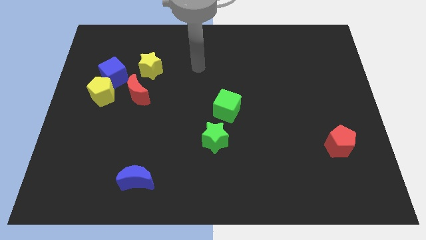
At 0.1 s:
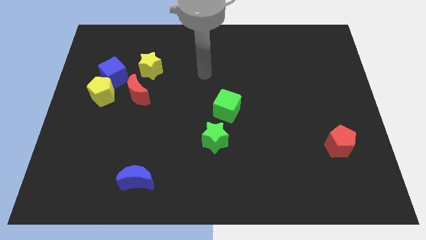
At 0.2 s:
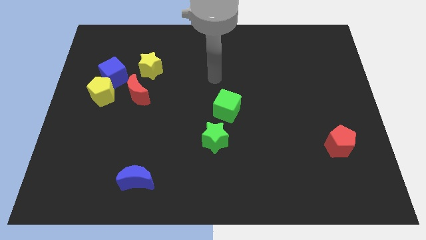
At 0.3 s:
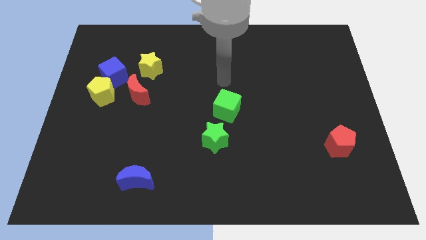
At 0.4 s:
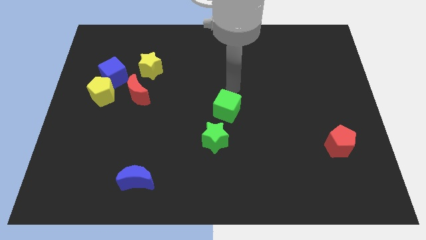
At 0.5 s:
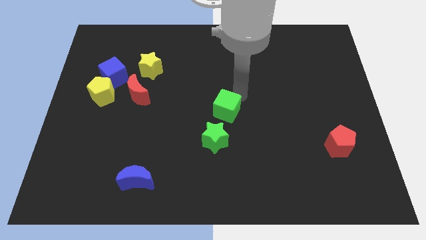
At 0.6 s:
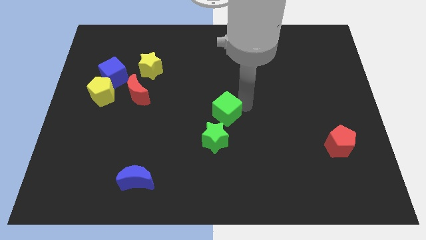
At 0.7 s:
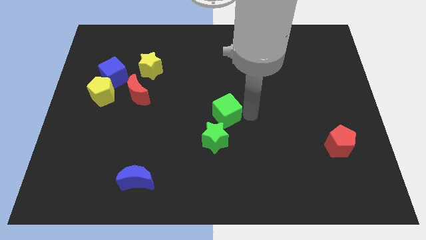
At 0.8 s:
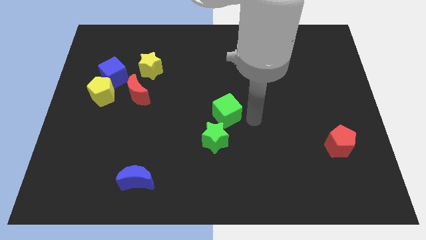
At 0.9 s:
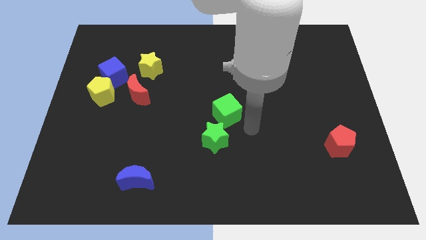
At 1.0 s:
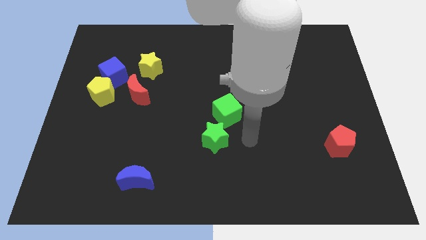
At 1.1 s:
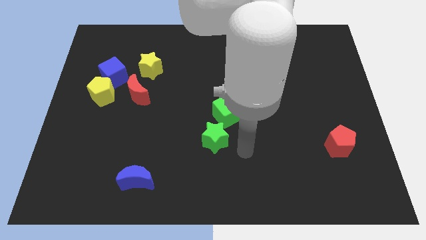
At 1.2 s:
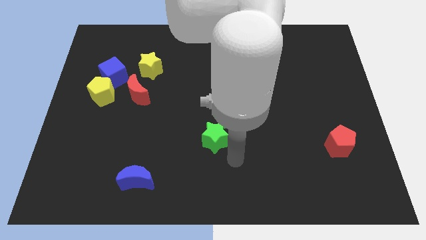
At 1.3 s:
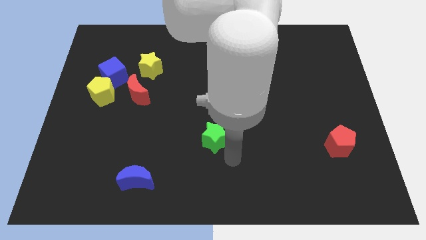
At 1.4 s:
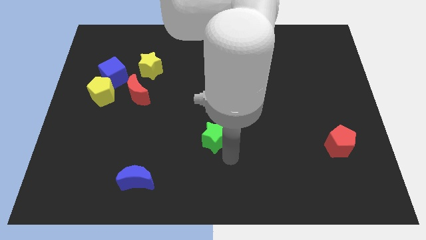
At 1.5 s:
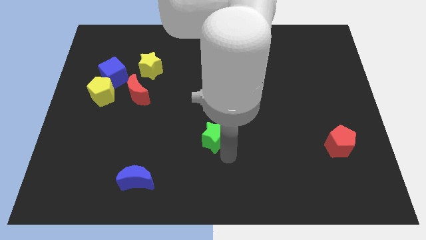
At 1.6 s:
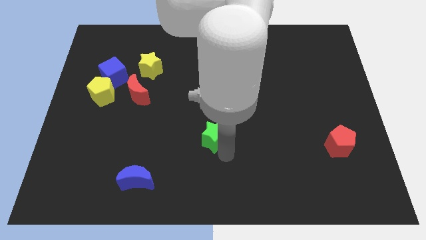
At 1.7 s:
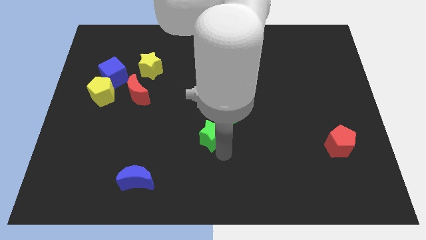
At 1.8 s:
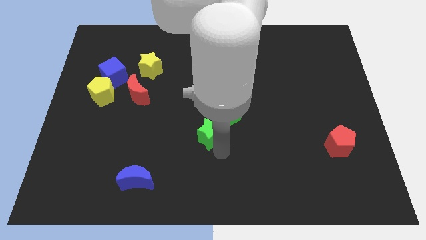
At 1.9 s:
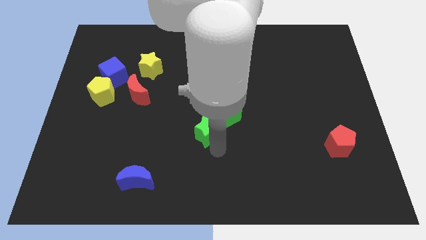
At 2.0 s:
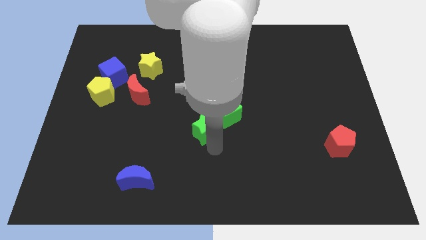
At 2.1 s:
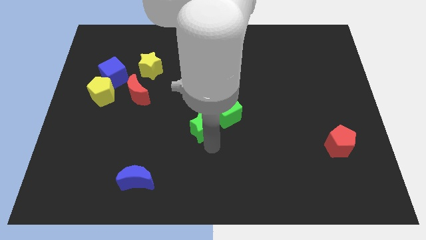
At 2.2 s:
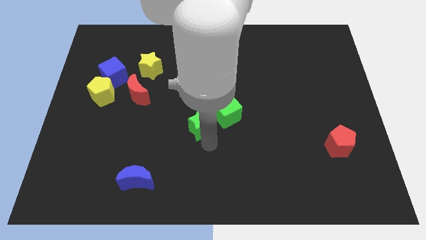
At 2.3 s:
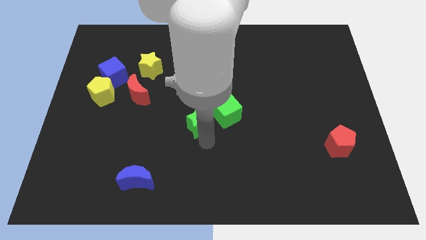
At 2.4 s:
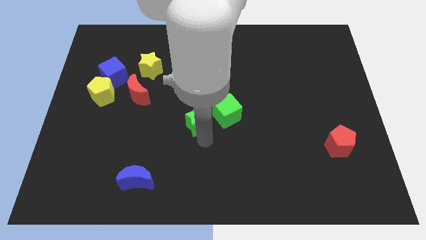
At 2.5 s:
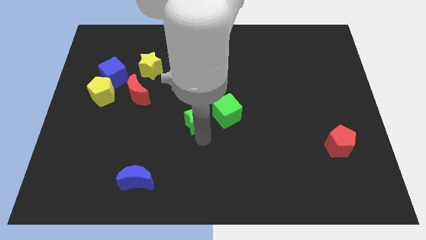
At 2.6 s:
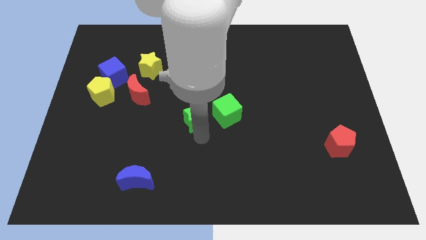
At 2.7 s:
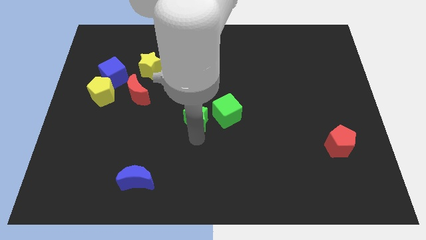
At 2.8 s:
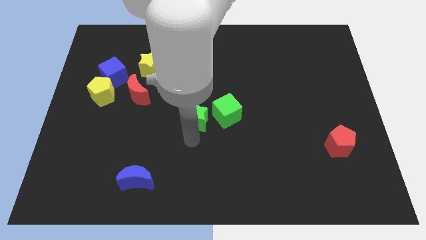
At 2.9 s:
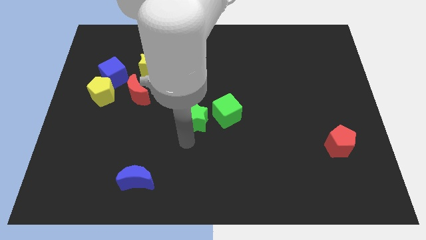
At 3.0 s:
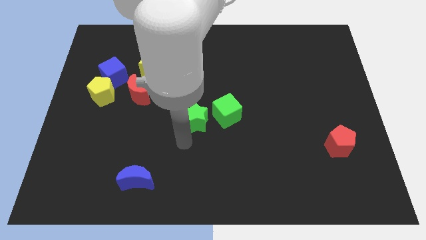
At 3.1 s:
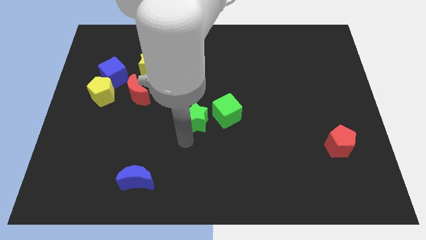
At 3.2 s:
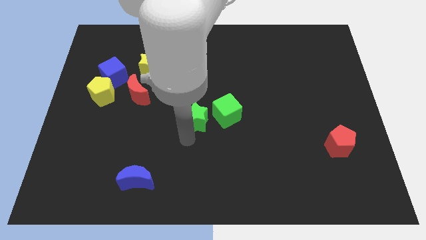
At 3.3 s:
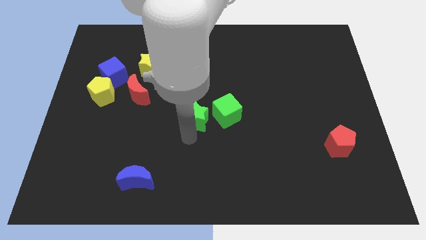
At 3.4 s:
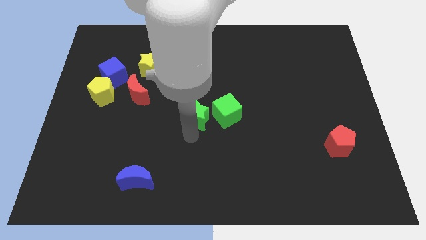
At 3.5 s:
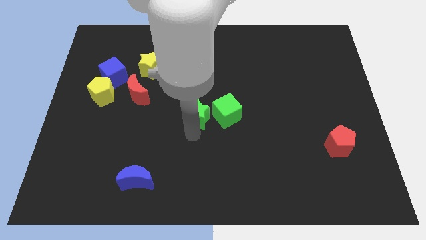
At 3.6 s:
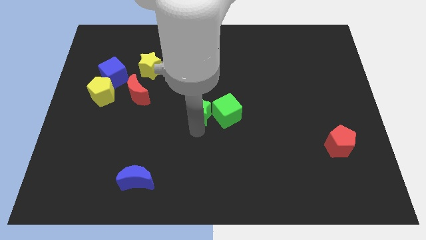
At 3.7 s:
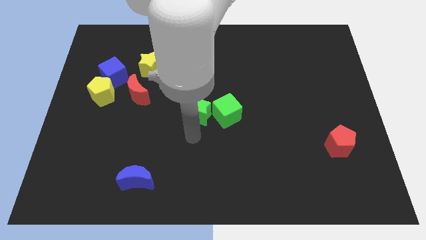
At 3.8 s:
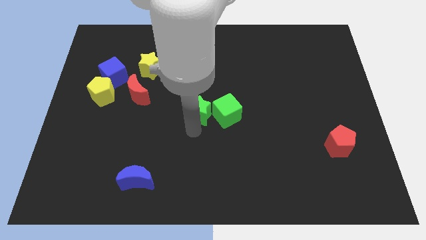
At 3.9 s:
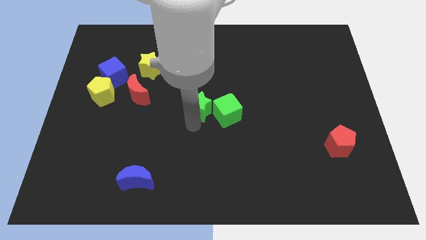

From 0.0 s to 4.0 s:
slide the green star upwards slightly

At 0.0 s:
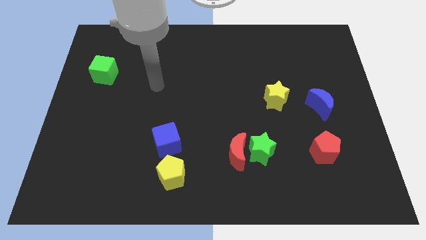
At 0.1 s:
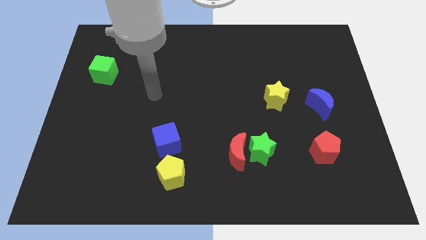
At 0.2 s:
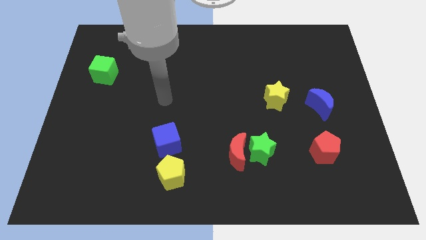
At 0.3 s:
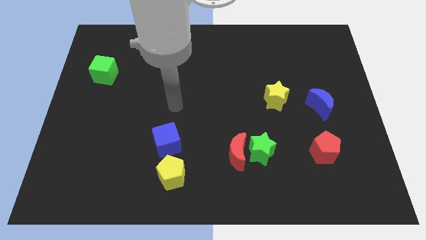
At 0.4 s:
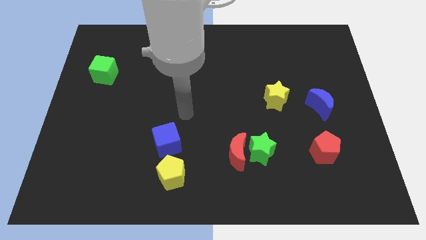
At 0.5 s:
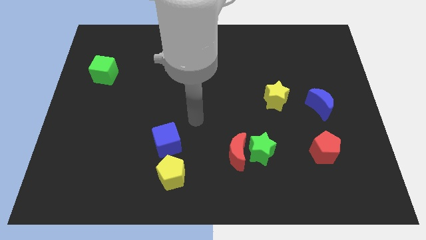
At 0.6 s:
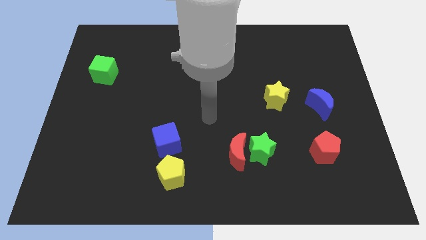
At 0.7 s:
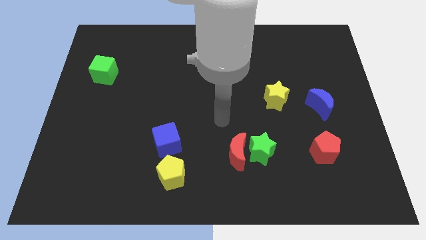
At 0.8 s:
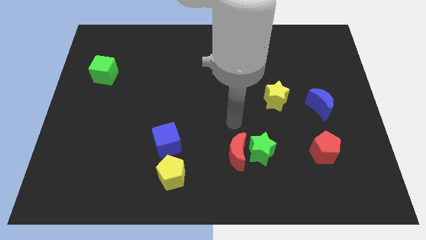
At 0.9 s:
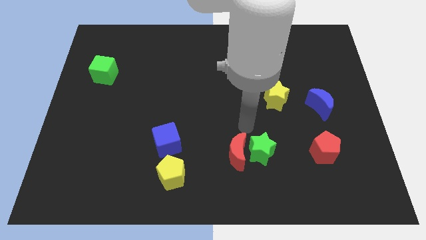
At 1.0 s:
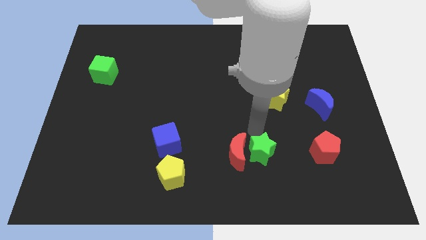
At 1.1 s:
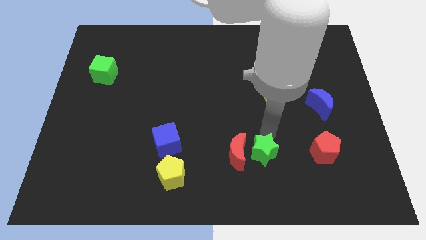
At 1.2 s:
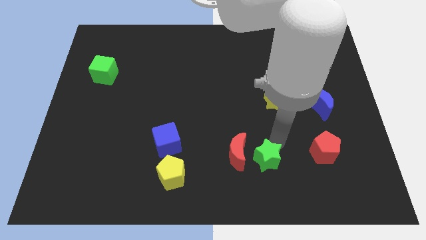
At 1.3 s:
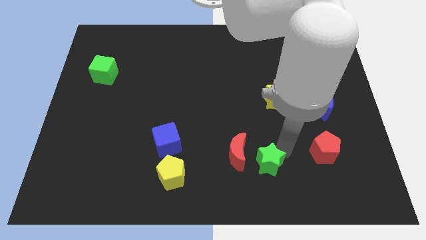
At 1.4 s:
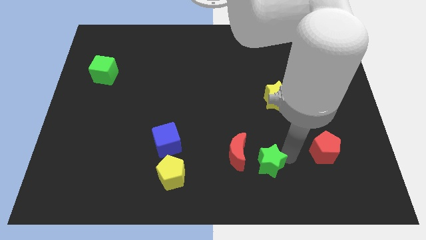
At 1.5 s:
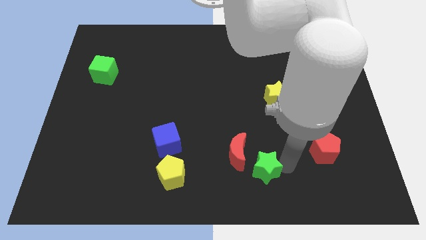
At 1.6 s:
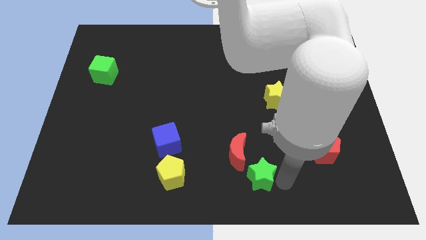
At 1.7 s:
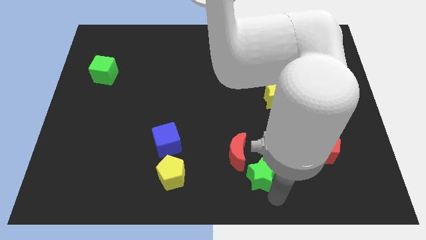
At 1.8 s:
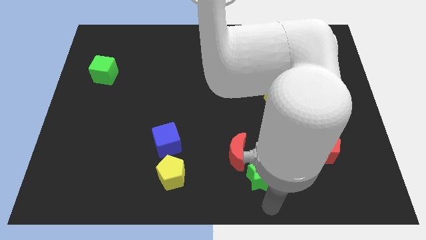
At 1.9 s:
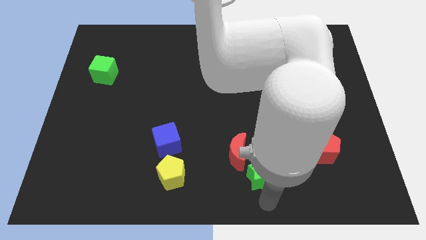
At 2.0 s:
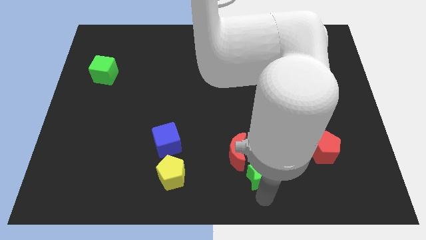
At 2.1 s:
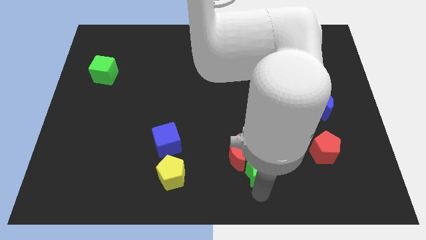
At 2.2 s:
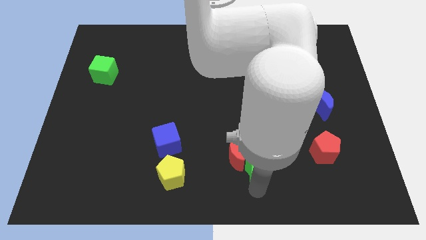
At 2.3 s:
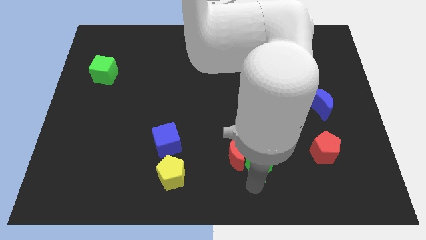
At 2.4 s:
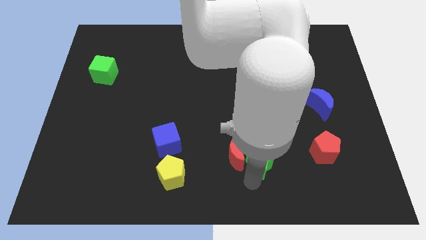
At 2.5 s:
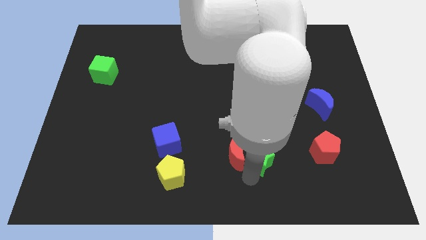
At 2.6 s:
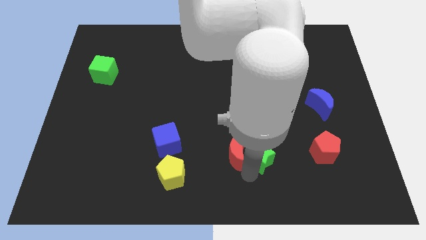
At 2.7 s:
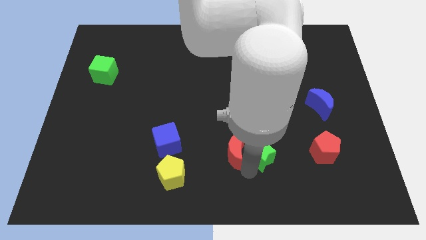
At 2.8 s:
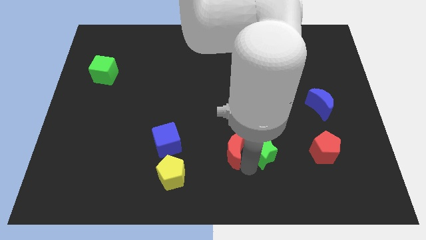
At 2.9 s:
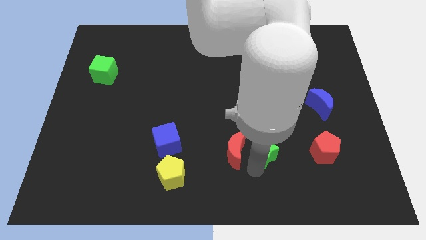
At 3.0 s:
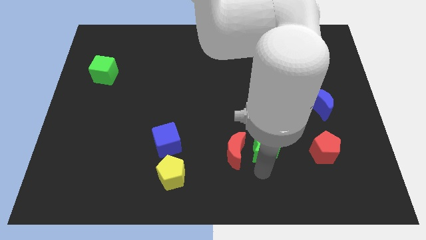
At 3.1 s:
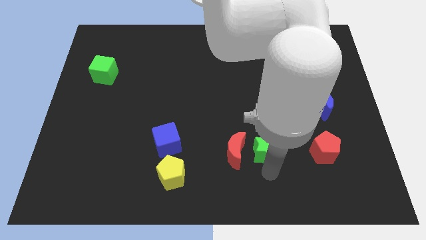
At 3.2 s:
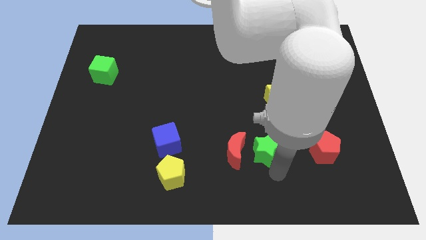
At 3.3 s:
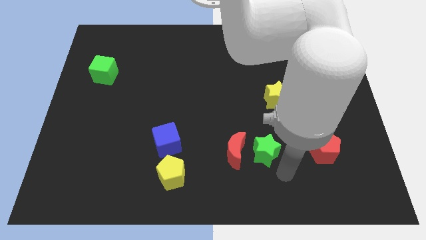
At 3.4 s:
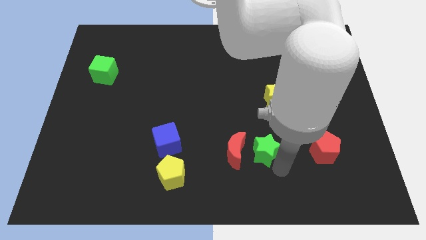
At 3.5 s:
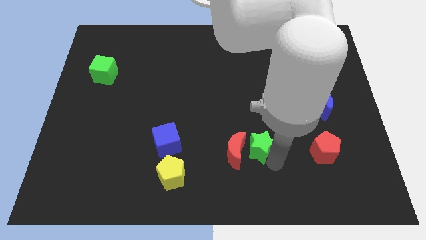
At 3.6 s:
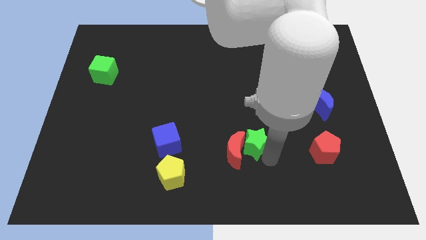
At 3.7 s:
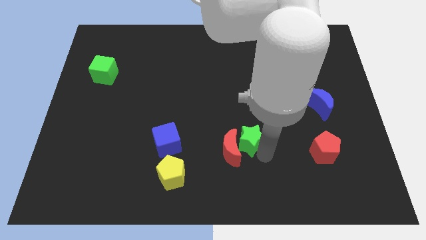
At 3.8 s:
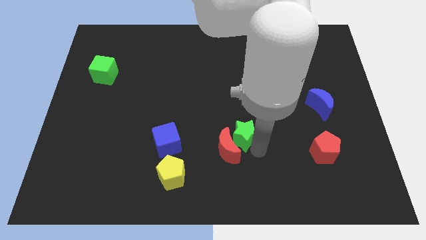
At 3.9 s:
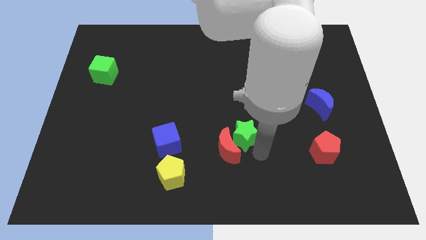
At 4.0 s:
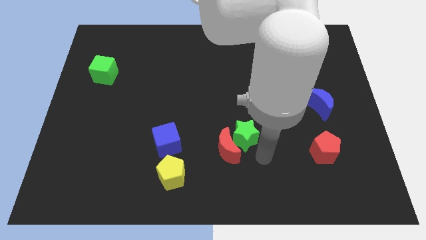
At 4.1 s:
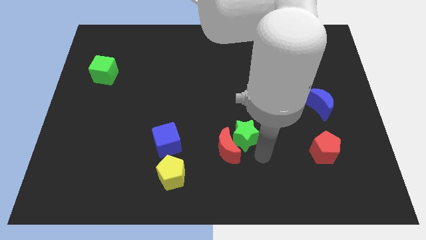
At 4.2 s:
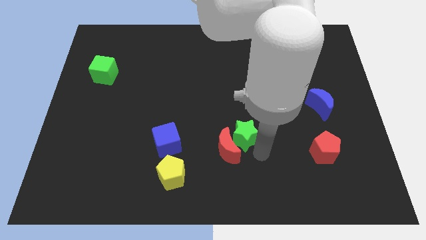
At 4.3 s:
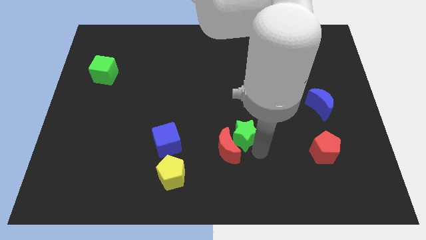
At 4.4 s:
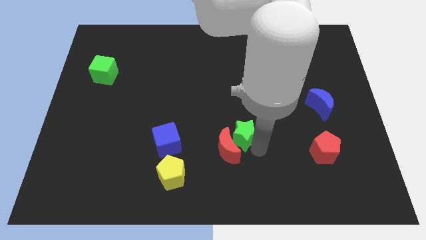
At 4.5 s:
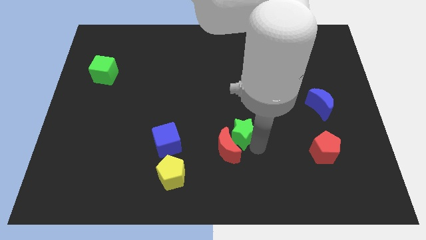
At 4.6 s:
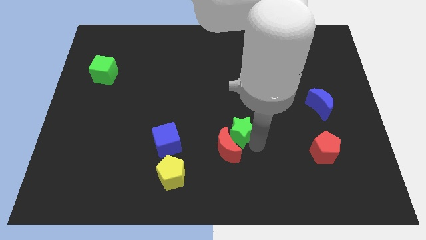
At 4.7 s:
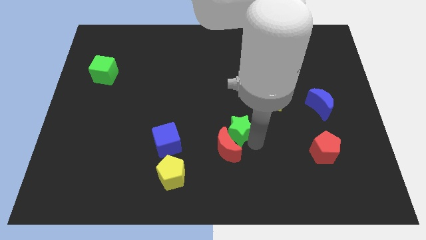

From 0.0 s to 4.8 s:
slide the green star a bit upwards and then to the left
